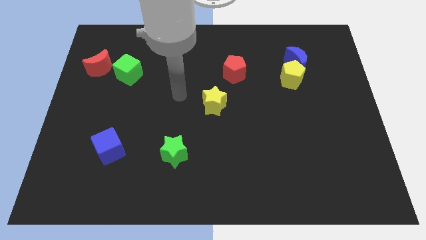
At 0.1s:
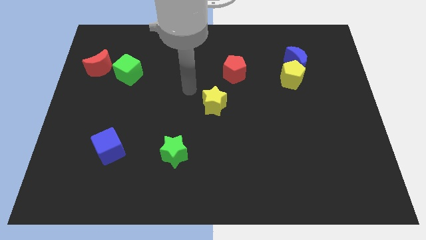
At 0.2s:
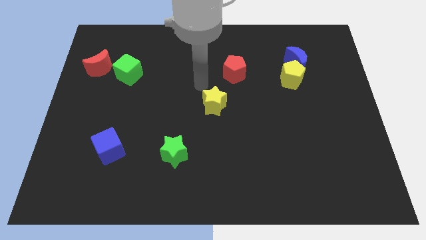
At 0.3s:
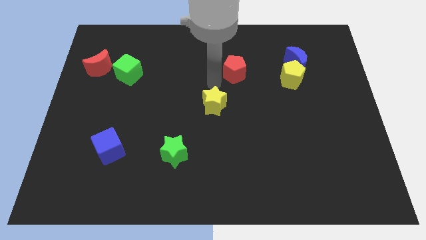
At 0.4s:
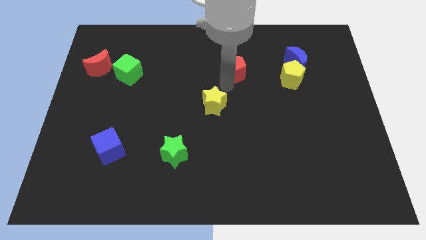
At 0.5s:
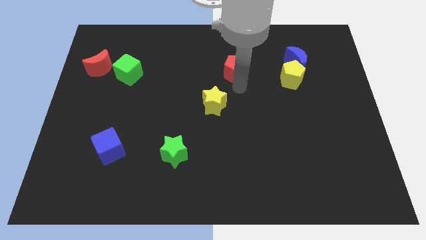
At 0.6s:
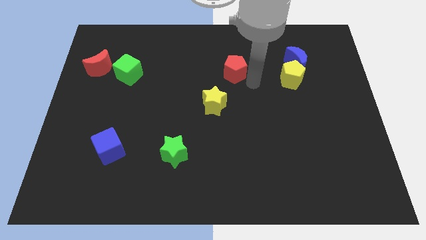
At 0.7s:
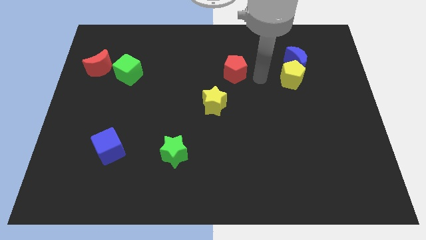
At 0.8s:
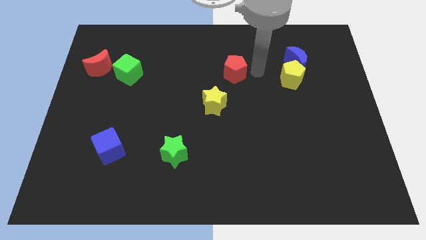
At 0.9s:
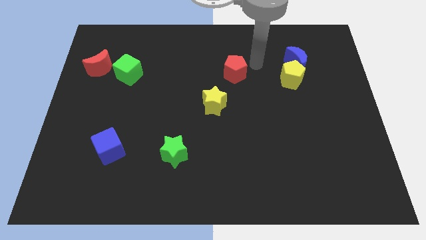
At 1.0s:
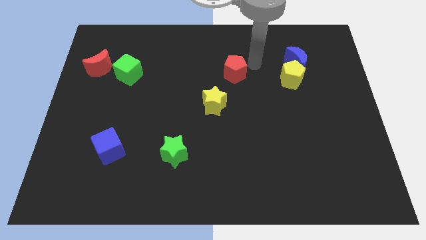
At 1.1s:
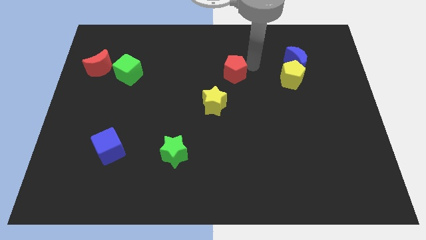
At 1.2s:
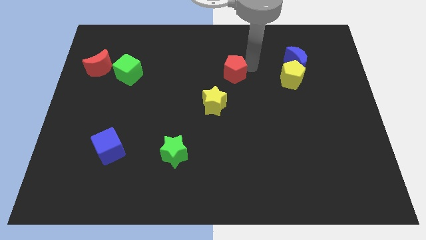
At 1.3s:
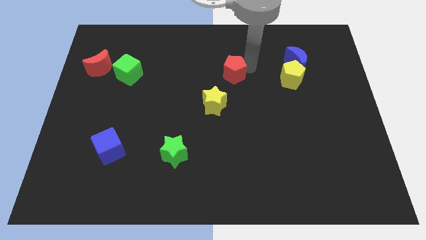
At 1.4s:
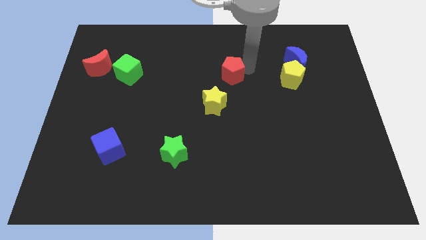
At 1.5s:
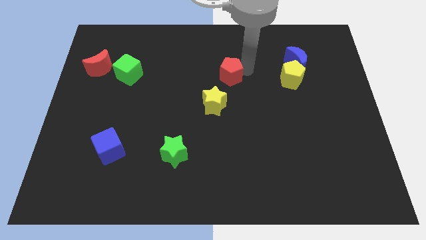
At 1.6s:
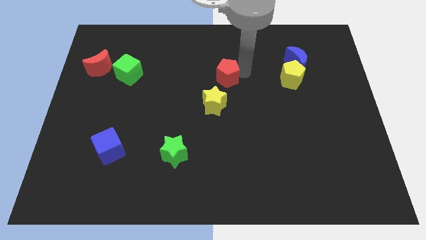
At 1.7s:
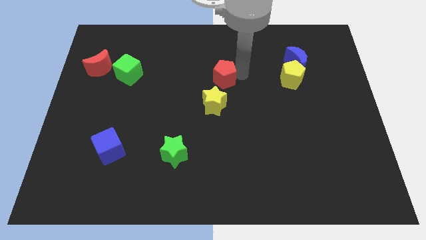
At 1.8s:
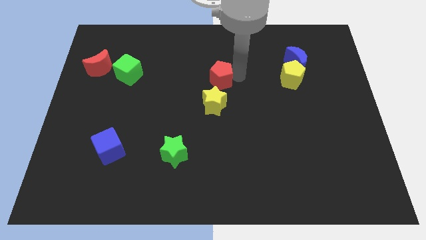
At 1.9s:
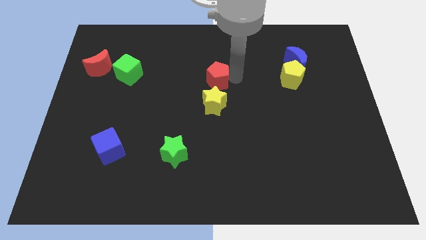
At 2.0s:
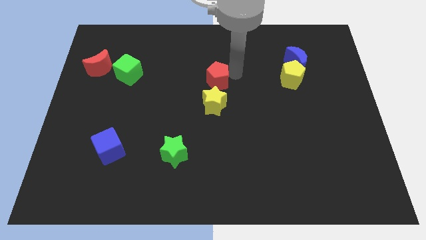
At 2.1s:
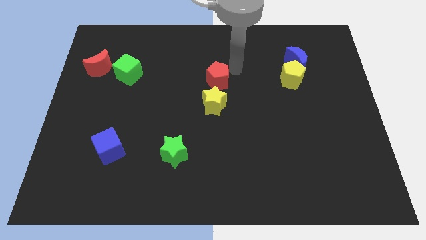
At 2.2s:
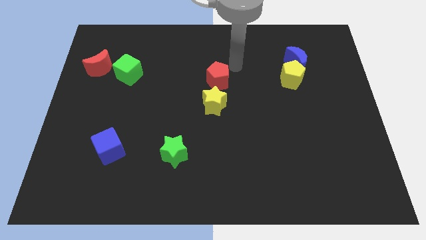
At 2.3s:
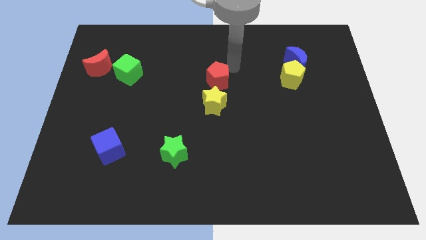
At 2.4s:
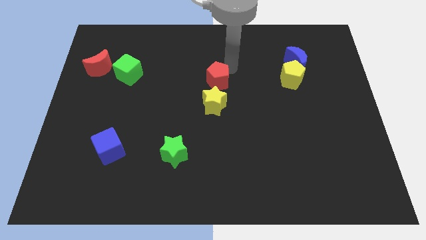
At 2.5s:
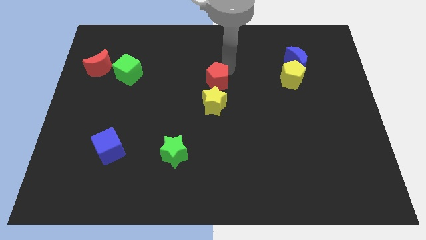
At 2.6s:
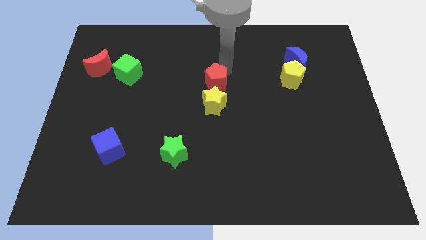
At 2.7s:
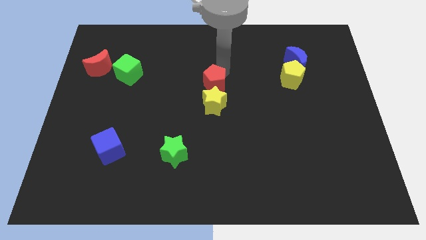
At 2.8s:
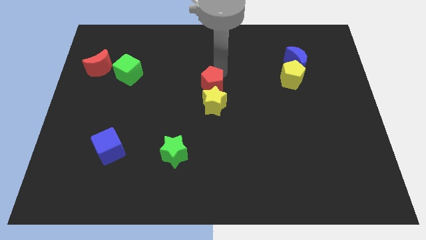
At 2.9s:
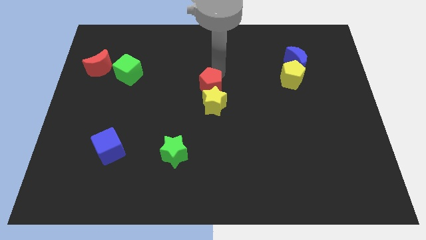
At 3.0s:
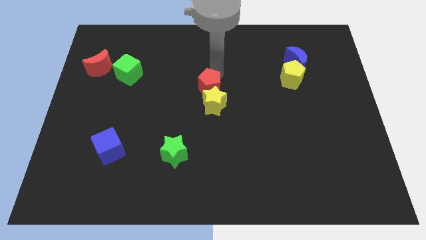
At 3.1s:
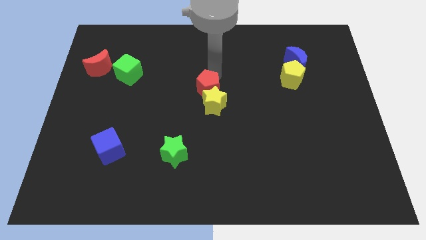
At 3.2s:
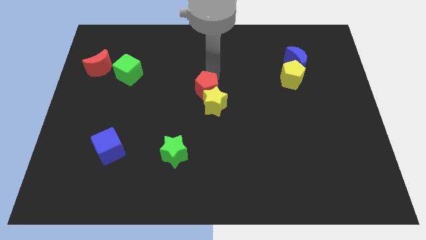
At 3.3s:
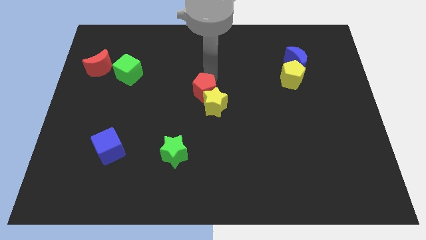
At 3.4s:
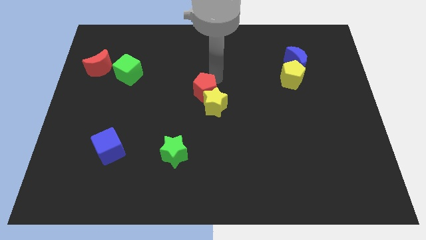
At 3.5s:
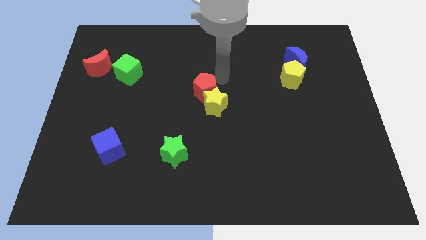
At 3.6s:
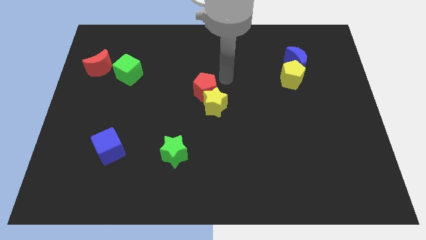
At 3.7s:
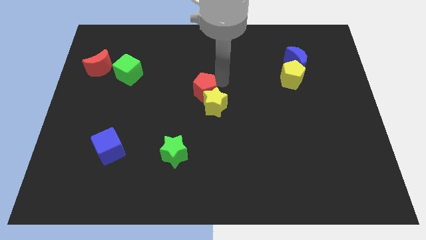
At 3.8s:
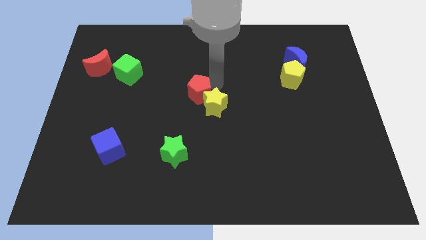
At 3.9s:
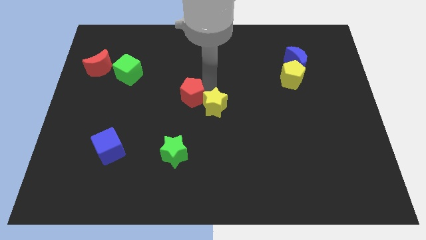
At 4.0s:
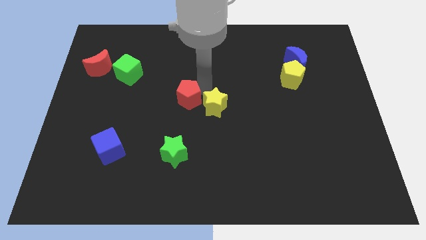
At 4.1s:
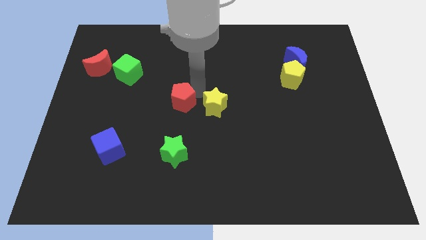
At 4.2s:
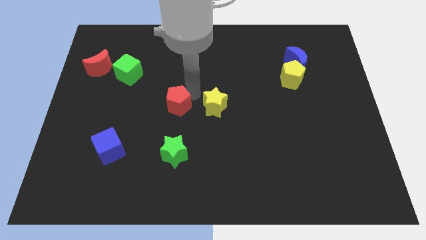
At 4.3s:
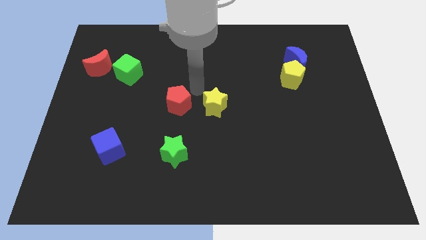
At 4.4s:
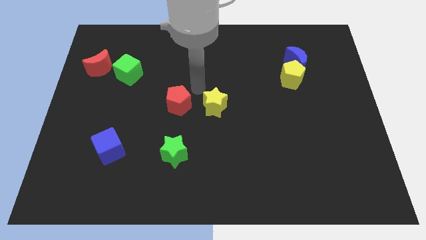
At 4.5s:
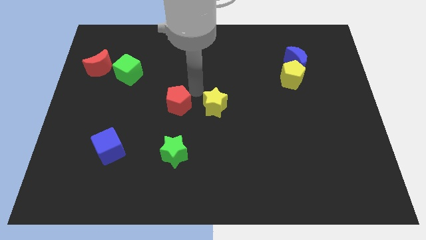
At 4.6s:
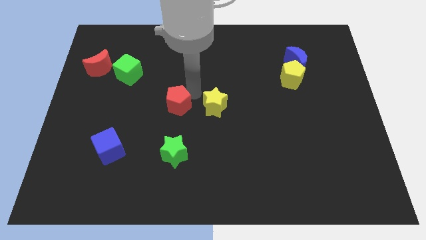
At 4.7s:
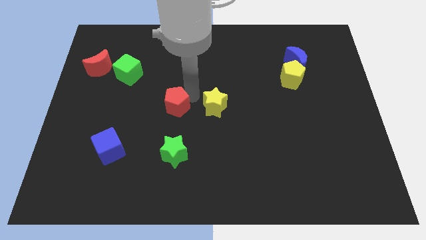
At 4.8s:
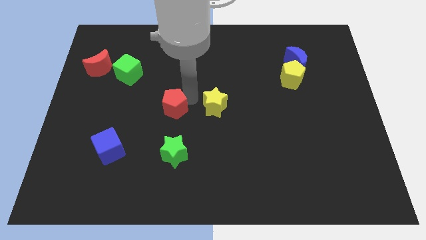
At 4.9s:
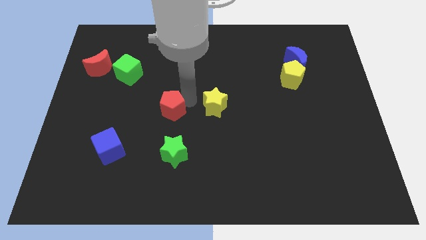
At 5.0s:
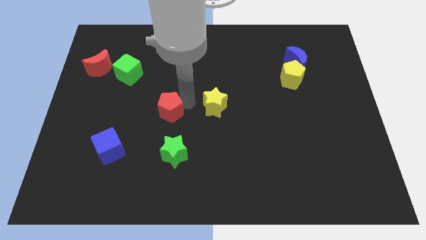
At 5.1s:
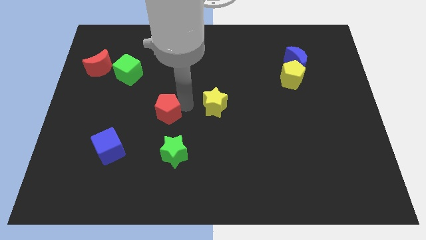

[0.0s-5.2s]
move the red pentagon down and left

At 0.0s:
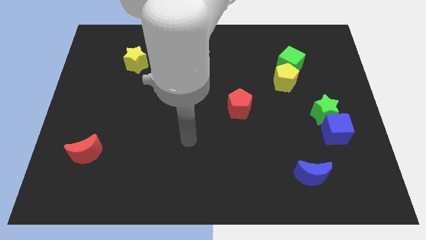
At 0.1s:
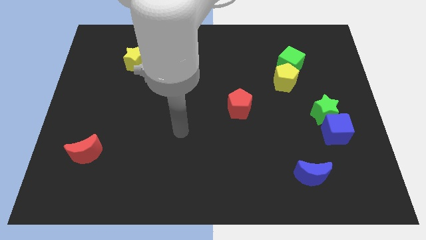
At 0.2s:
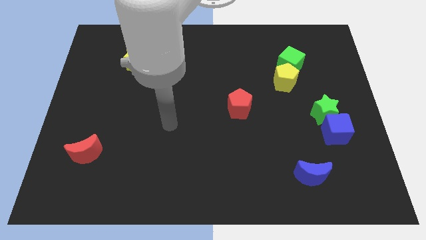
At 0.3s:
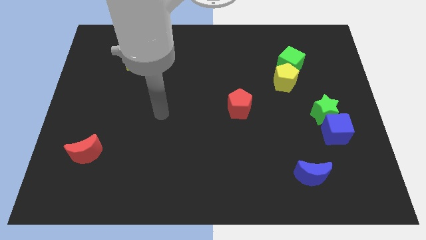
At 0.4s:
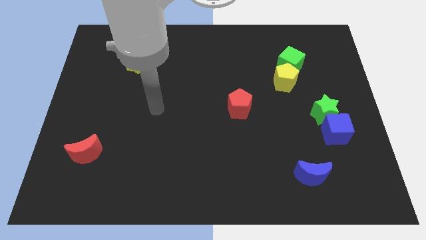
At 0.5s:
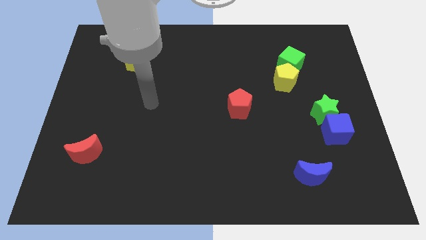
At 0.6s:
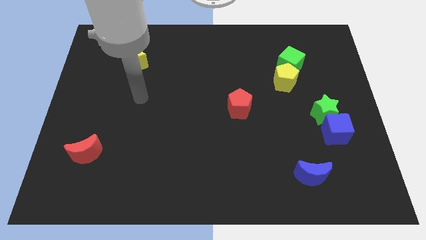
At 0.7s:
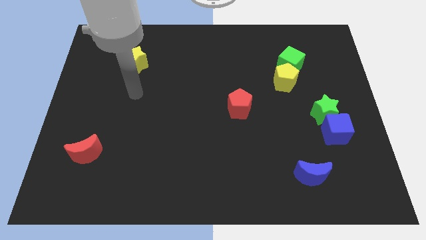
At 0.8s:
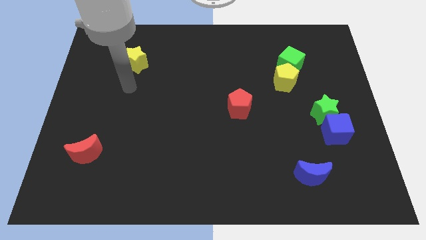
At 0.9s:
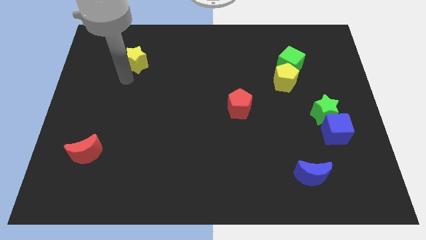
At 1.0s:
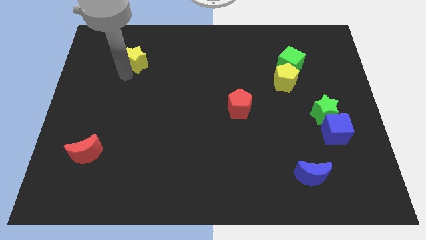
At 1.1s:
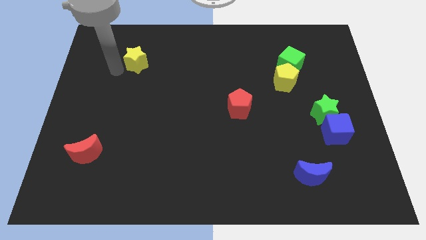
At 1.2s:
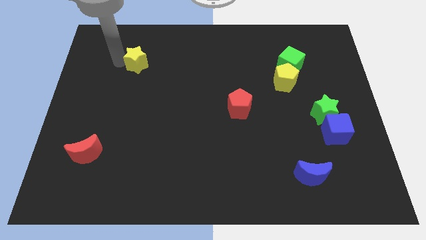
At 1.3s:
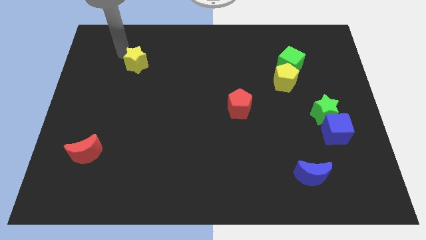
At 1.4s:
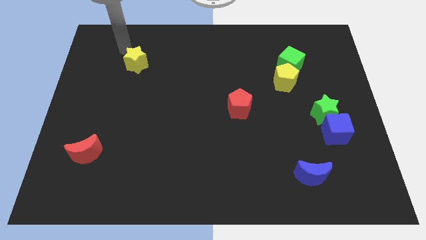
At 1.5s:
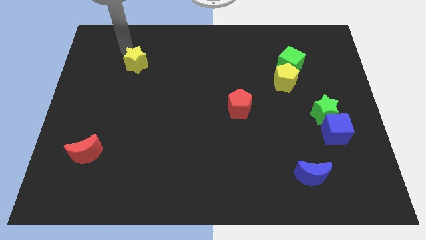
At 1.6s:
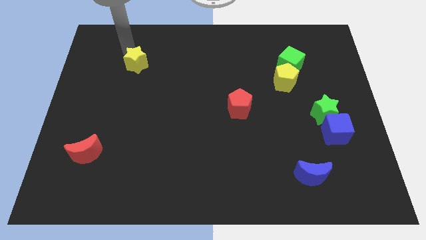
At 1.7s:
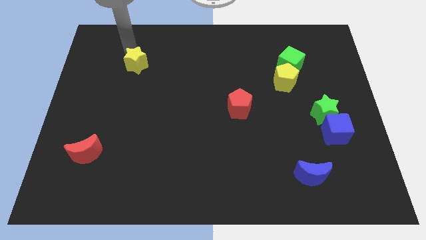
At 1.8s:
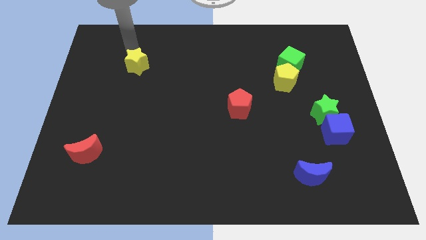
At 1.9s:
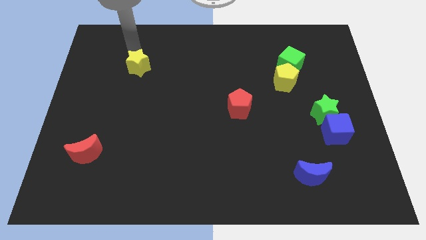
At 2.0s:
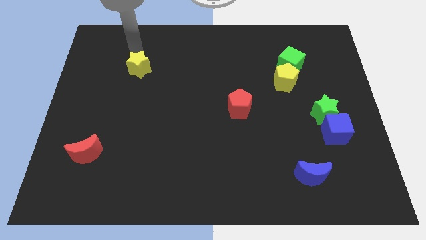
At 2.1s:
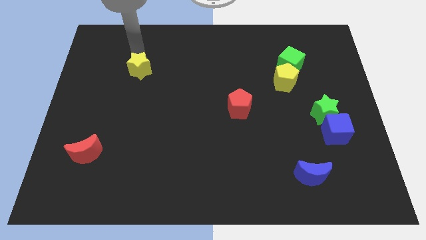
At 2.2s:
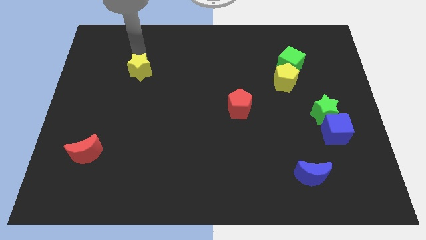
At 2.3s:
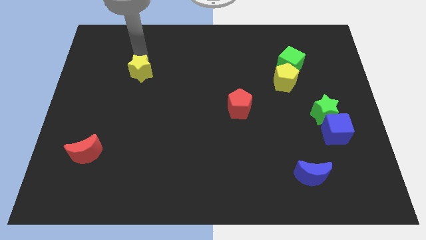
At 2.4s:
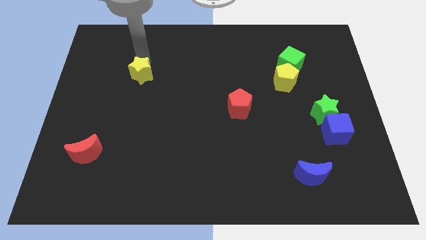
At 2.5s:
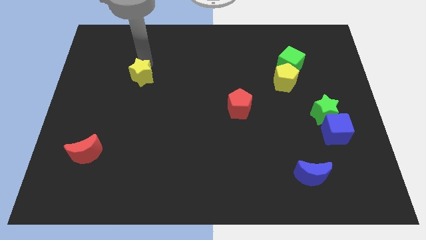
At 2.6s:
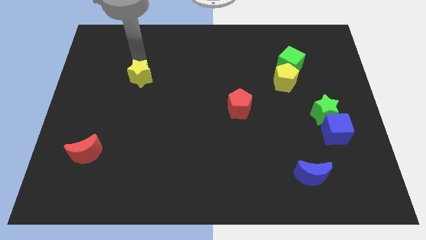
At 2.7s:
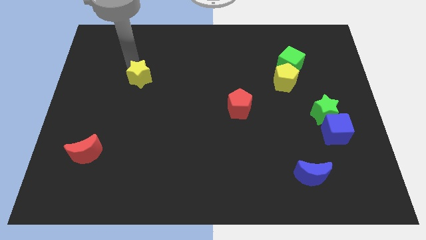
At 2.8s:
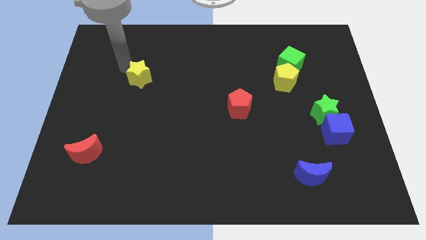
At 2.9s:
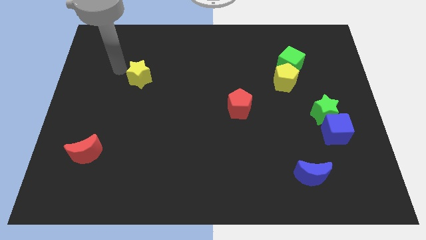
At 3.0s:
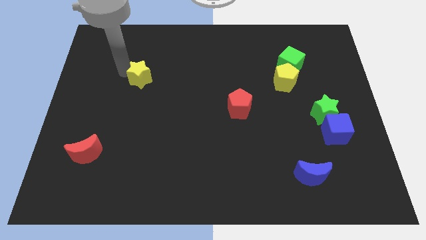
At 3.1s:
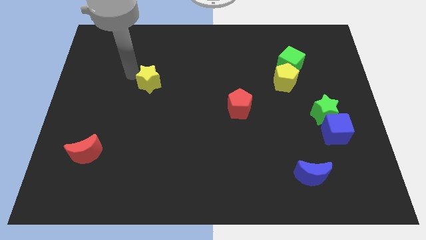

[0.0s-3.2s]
slightly push the yellow star downwards and to the right diagonally
